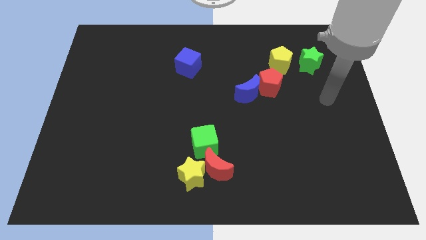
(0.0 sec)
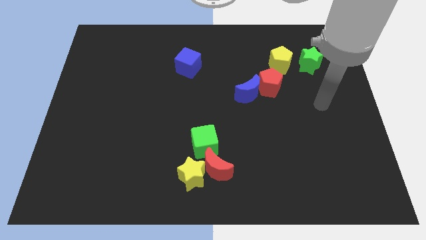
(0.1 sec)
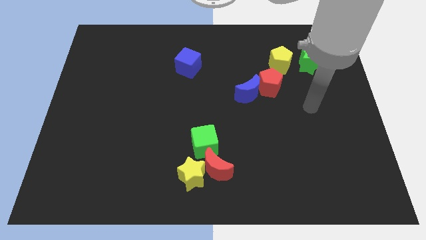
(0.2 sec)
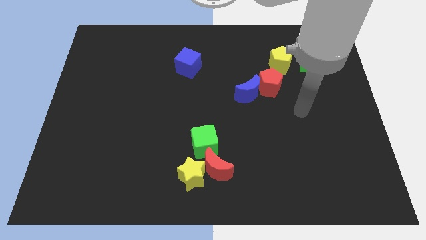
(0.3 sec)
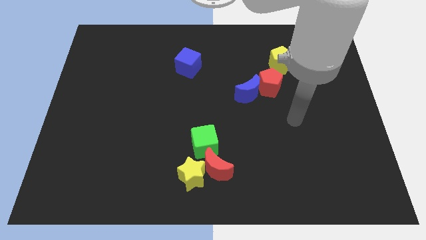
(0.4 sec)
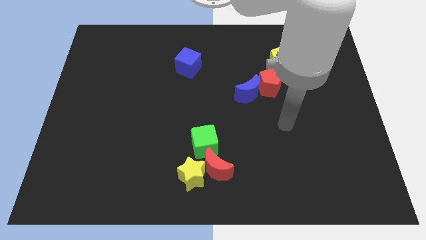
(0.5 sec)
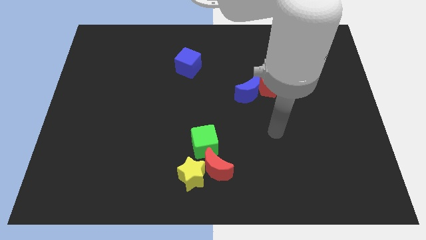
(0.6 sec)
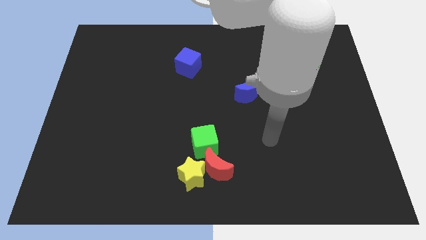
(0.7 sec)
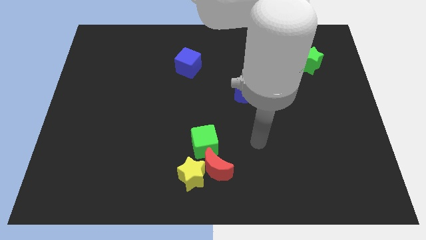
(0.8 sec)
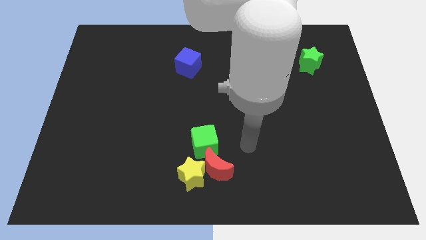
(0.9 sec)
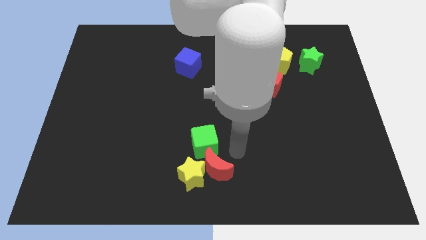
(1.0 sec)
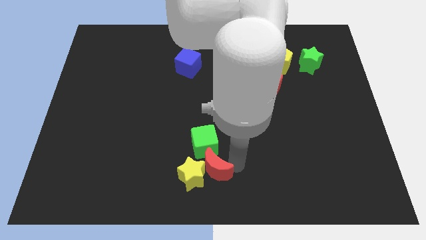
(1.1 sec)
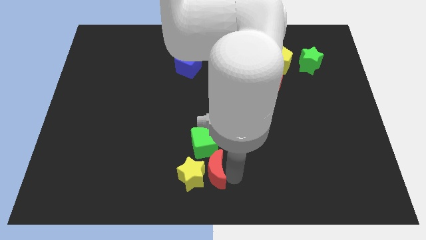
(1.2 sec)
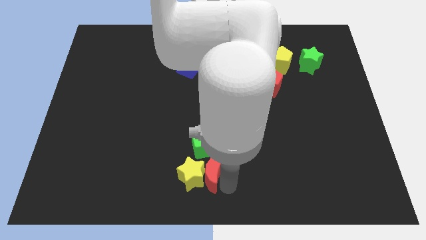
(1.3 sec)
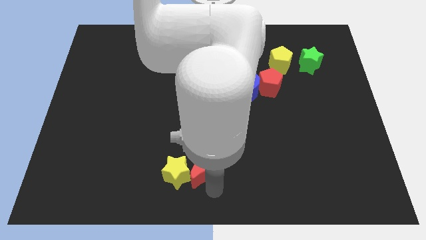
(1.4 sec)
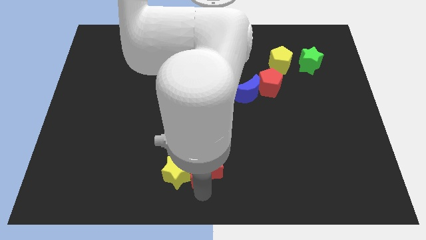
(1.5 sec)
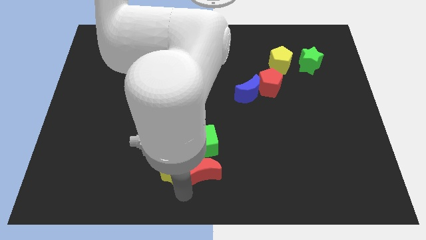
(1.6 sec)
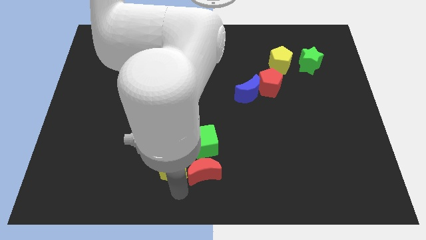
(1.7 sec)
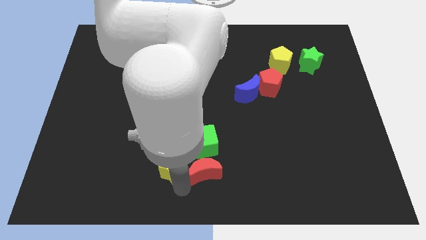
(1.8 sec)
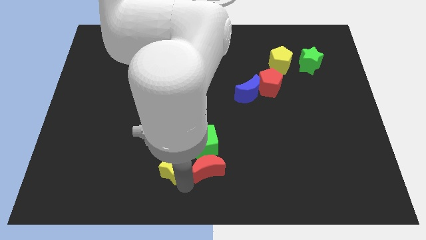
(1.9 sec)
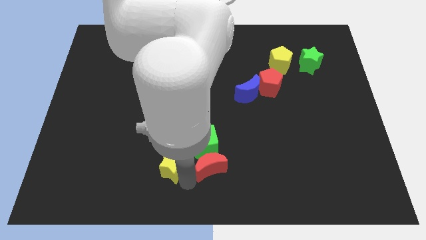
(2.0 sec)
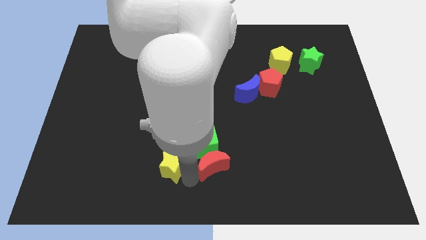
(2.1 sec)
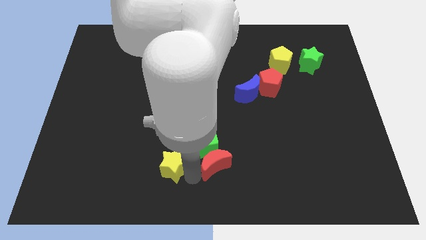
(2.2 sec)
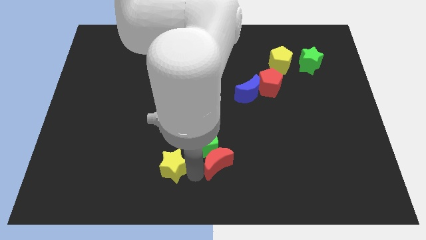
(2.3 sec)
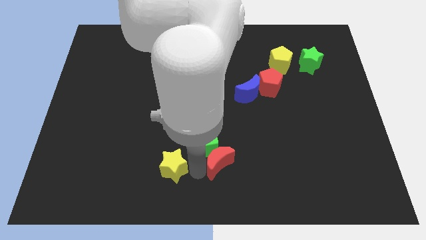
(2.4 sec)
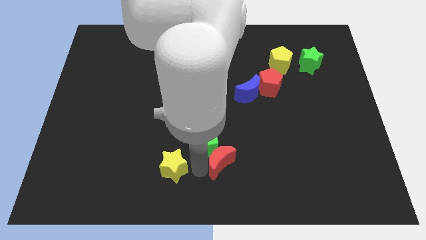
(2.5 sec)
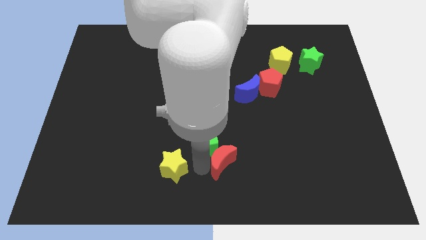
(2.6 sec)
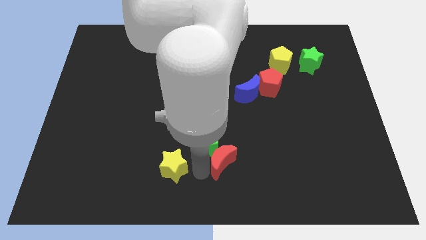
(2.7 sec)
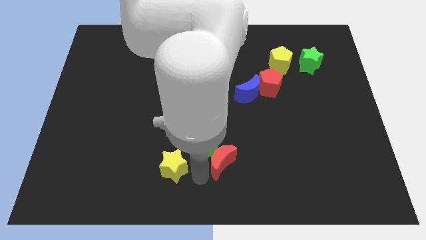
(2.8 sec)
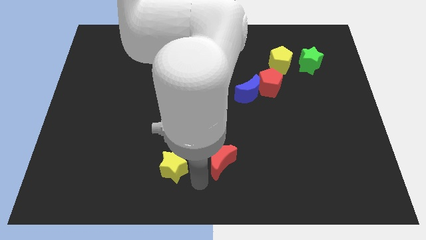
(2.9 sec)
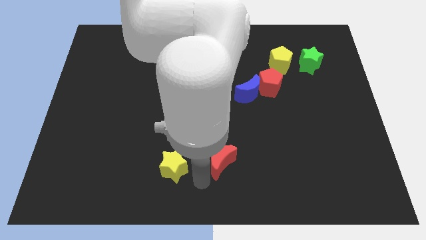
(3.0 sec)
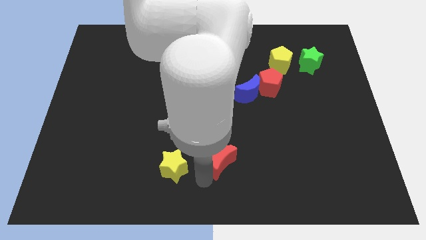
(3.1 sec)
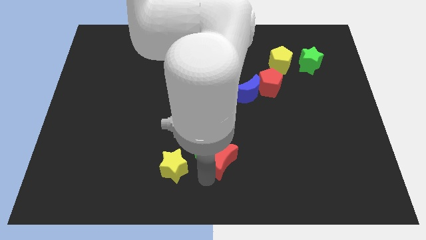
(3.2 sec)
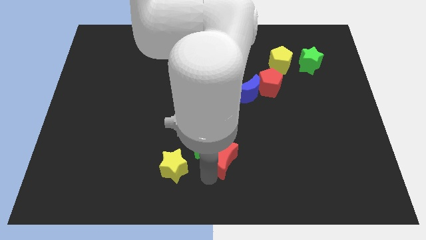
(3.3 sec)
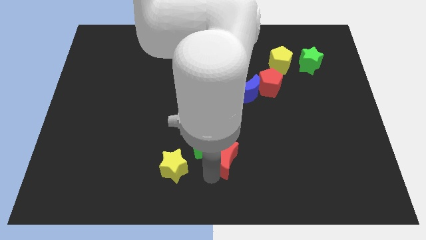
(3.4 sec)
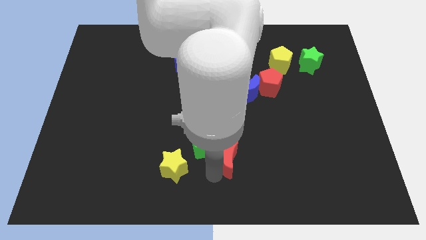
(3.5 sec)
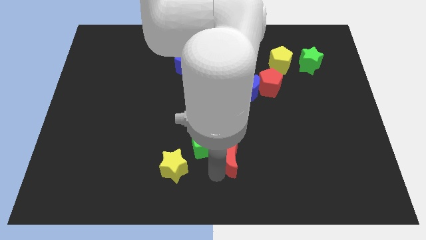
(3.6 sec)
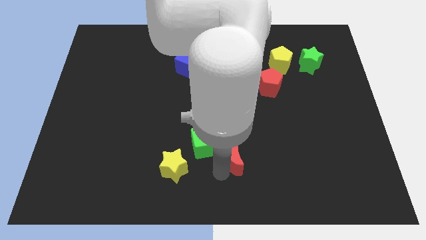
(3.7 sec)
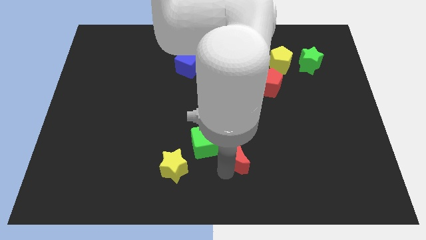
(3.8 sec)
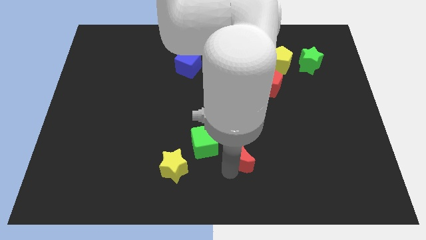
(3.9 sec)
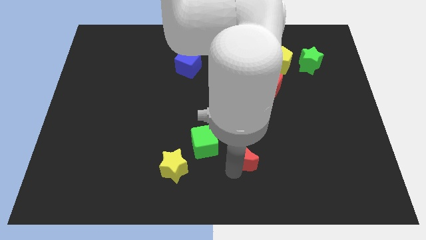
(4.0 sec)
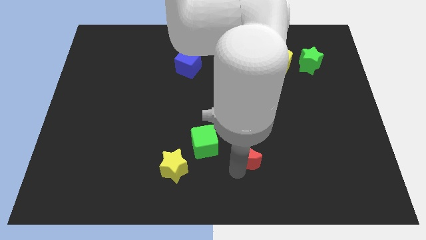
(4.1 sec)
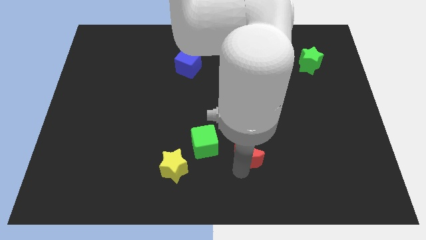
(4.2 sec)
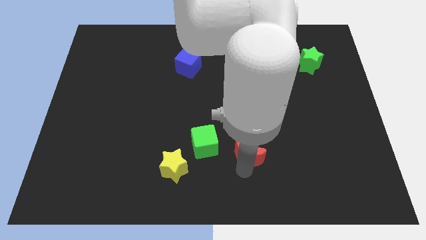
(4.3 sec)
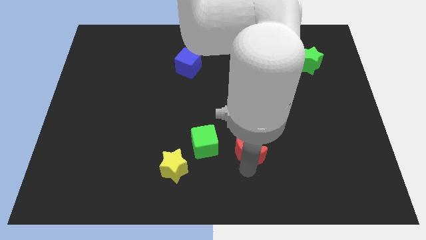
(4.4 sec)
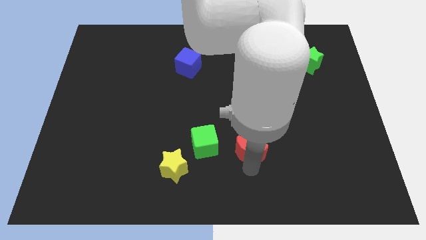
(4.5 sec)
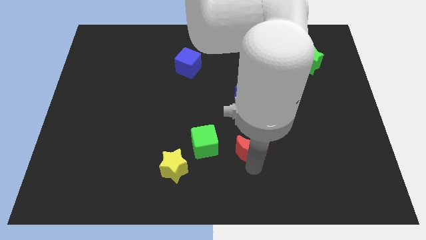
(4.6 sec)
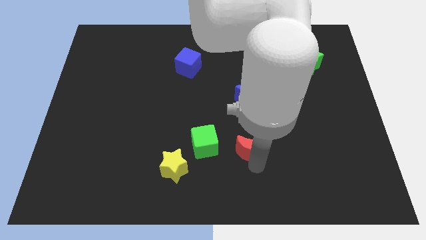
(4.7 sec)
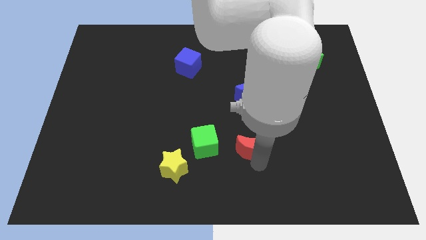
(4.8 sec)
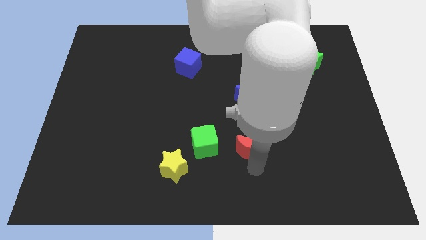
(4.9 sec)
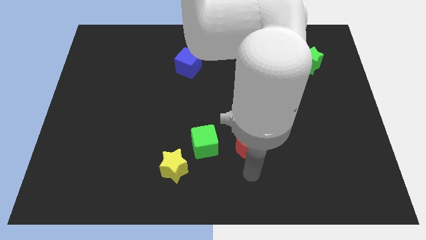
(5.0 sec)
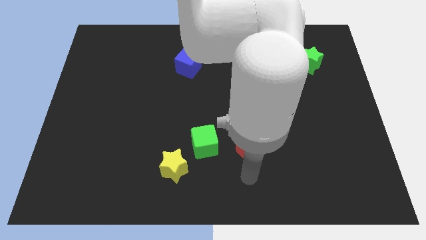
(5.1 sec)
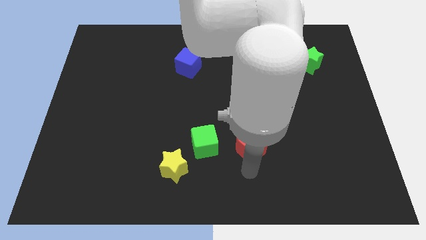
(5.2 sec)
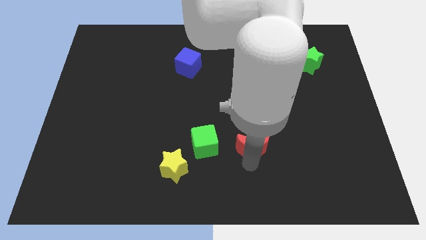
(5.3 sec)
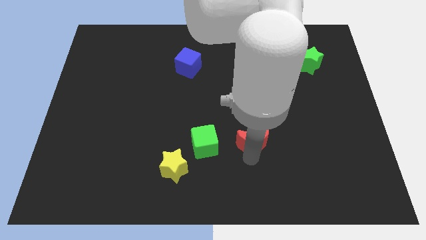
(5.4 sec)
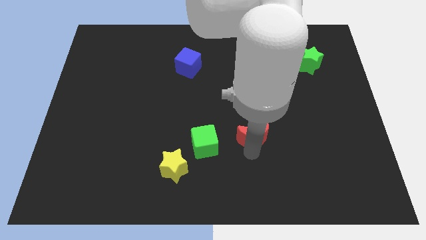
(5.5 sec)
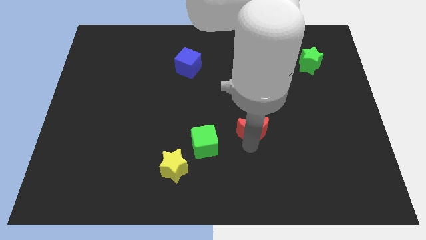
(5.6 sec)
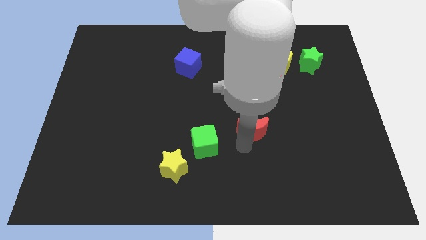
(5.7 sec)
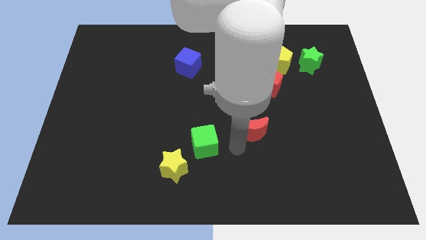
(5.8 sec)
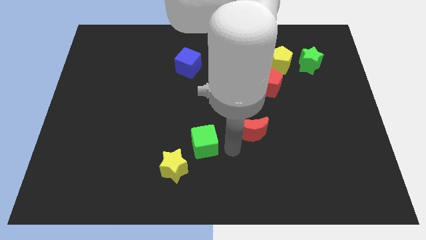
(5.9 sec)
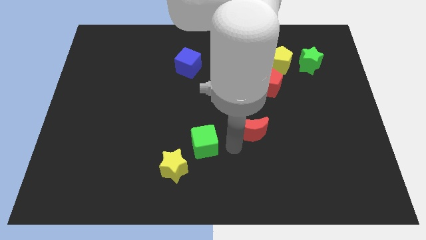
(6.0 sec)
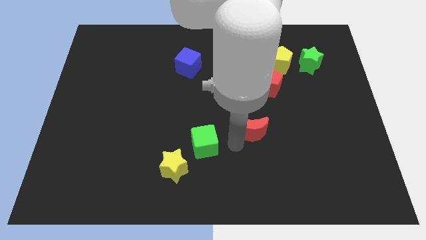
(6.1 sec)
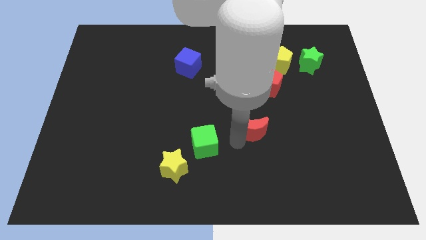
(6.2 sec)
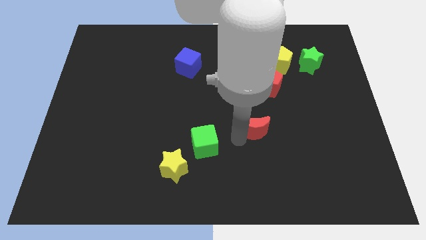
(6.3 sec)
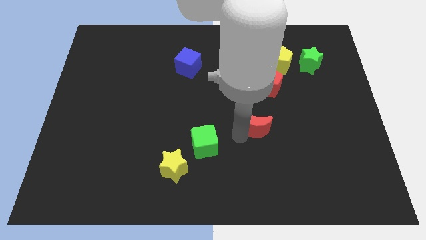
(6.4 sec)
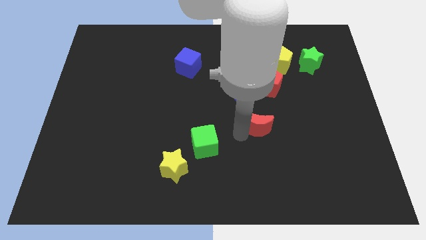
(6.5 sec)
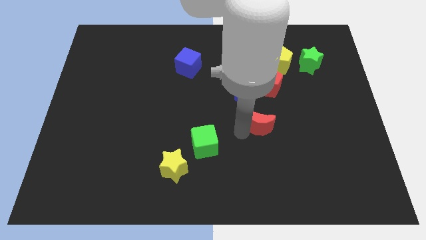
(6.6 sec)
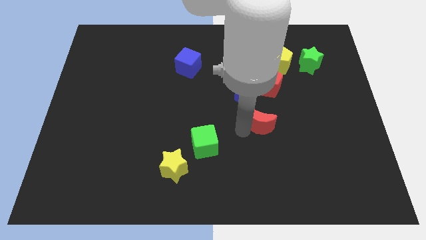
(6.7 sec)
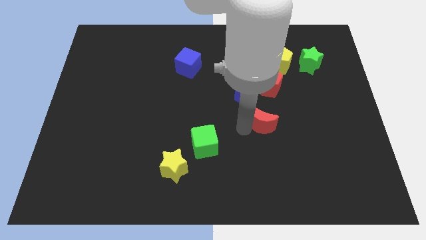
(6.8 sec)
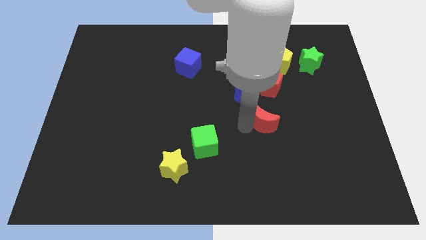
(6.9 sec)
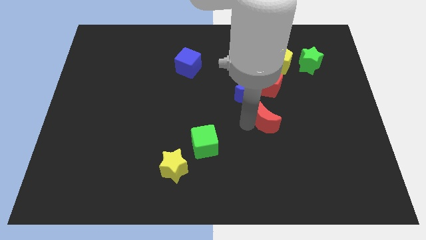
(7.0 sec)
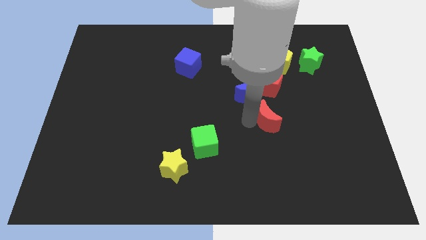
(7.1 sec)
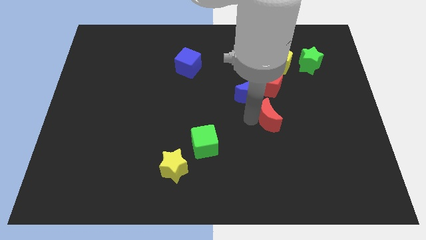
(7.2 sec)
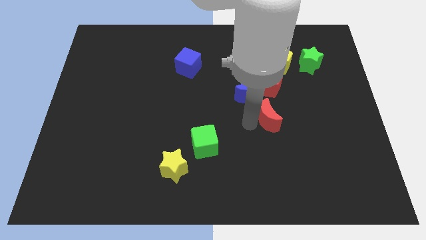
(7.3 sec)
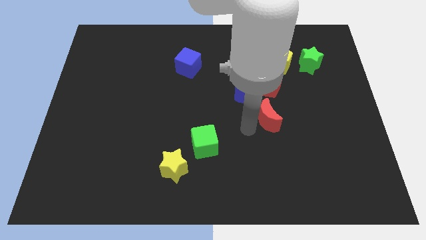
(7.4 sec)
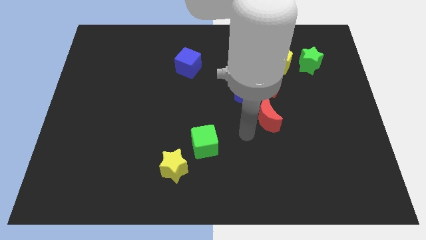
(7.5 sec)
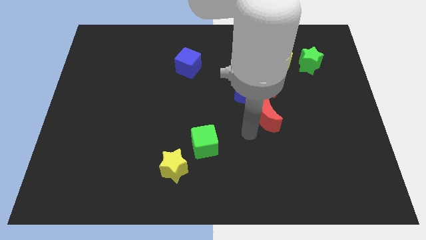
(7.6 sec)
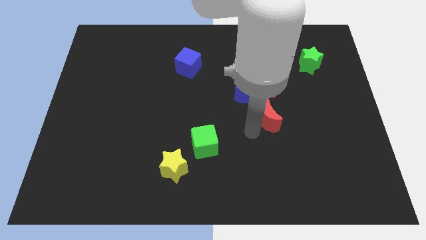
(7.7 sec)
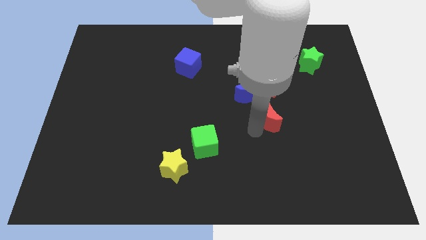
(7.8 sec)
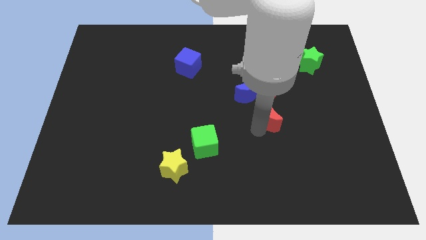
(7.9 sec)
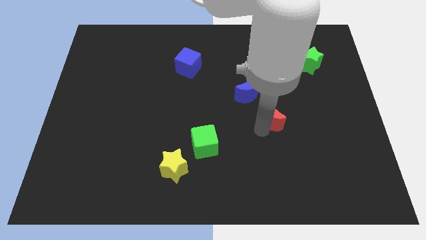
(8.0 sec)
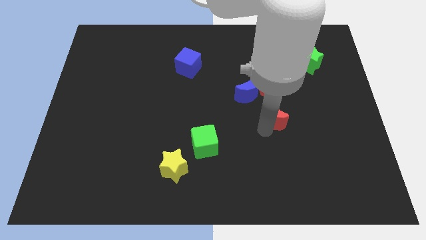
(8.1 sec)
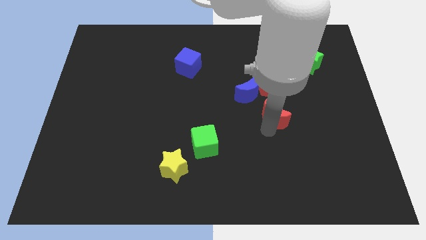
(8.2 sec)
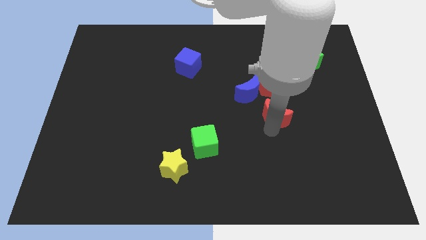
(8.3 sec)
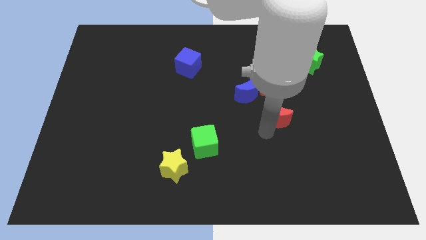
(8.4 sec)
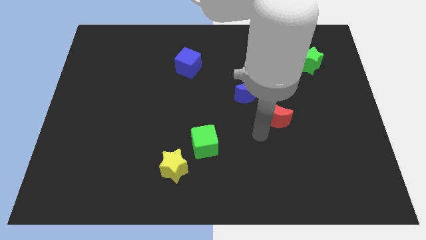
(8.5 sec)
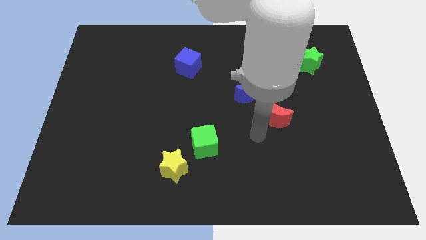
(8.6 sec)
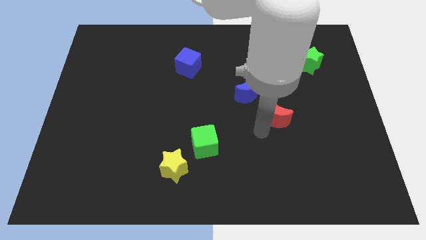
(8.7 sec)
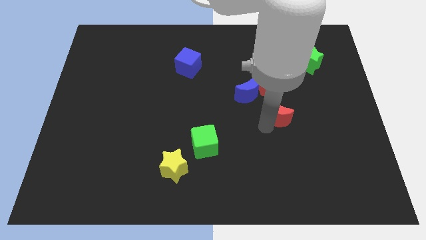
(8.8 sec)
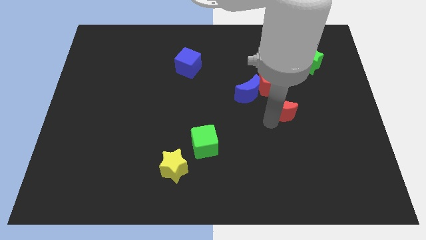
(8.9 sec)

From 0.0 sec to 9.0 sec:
slide the red moon up and right diagonally
